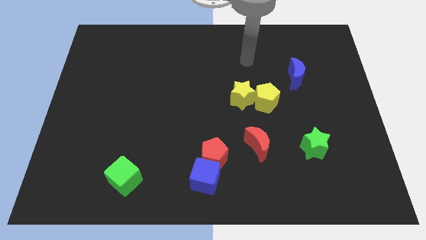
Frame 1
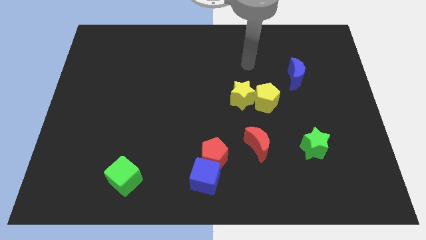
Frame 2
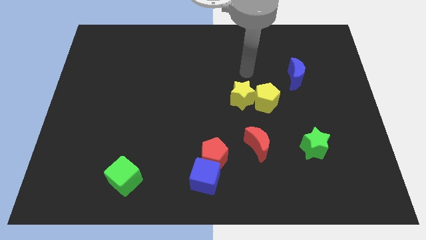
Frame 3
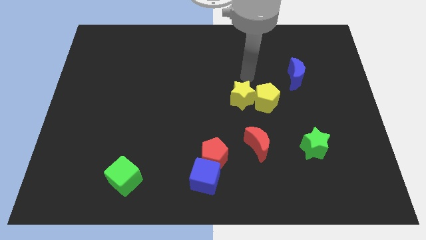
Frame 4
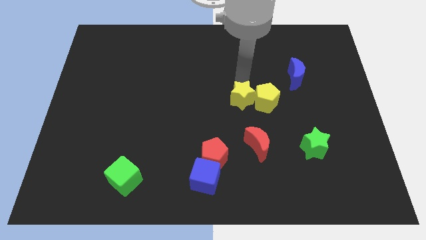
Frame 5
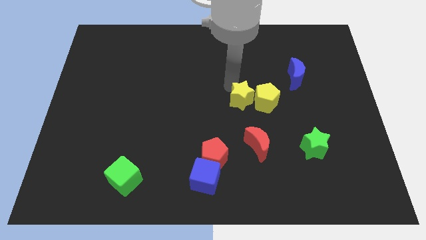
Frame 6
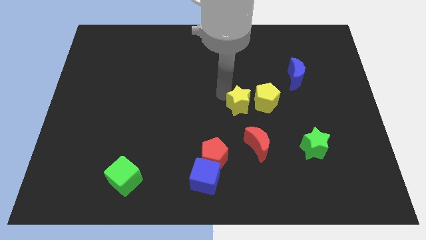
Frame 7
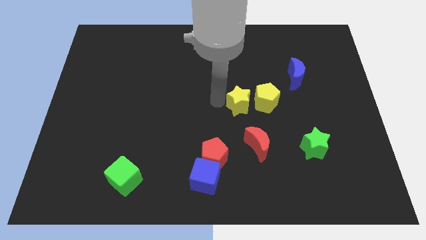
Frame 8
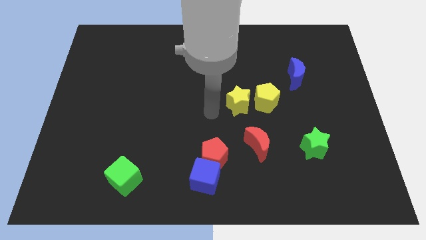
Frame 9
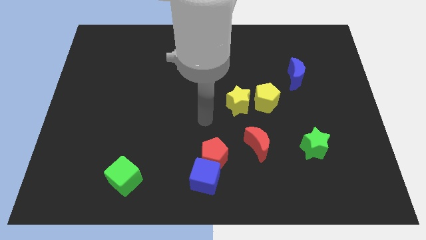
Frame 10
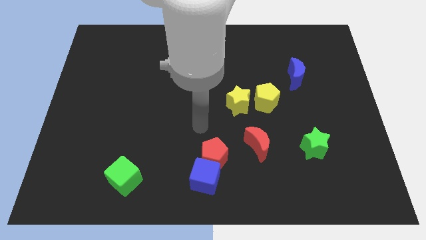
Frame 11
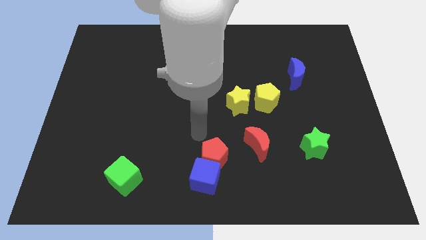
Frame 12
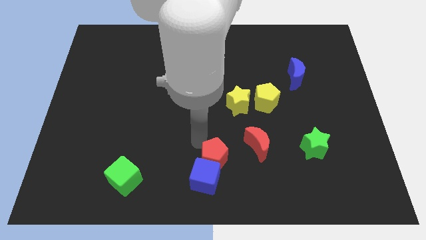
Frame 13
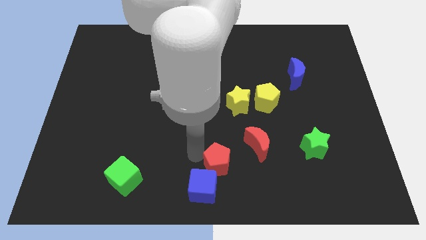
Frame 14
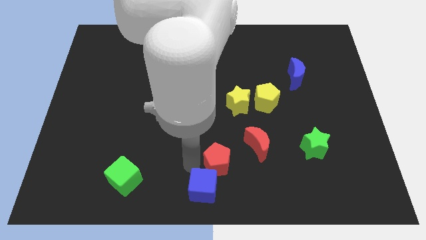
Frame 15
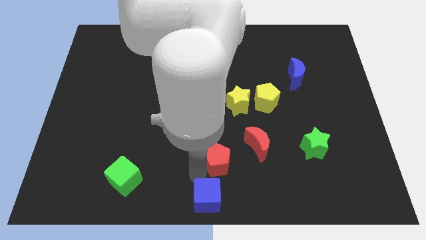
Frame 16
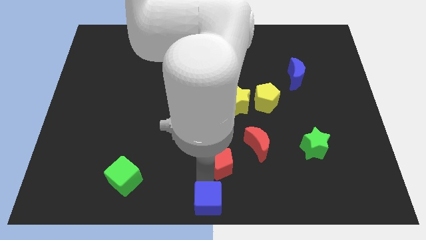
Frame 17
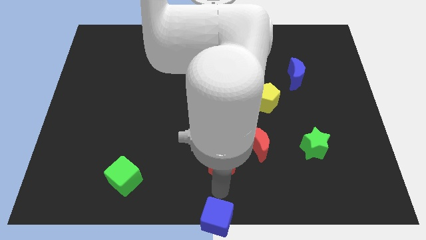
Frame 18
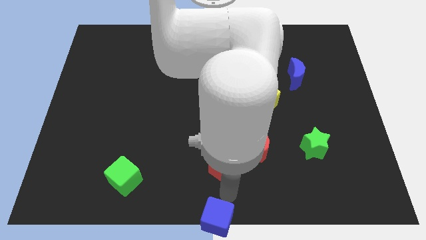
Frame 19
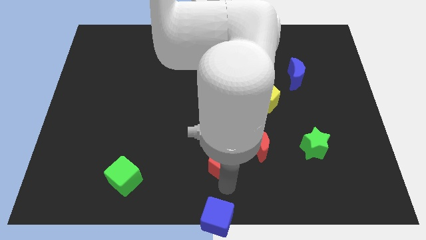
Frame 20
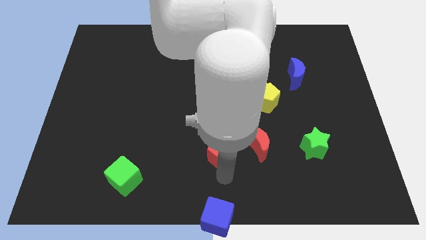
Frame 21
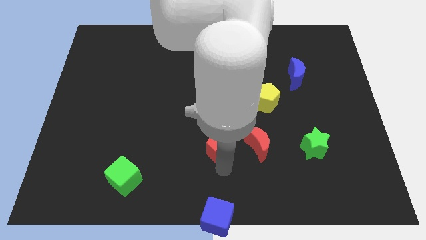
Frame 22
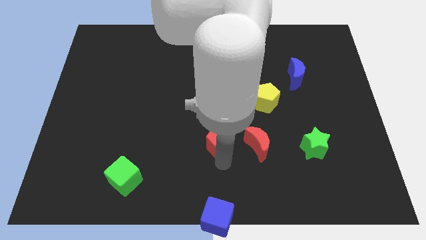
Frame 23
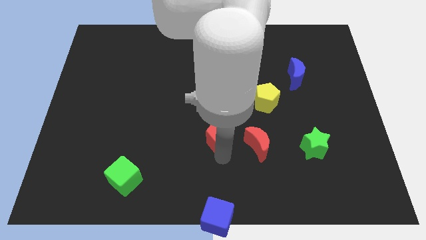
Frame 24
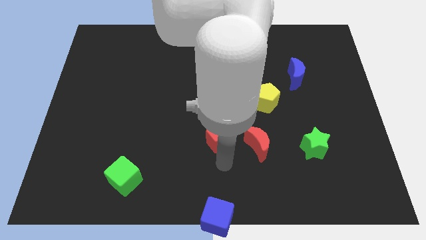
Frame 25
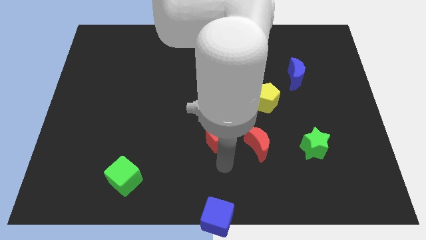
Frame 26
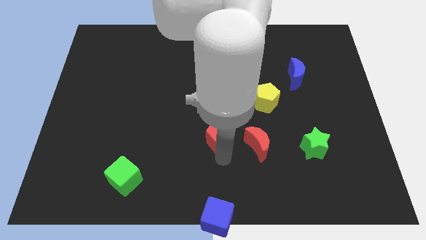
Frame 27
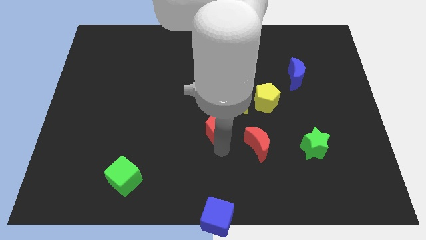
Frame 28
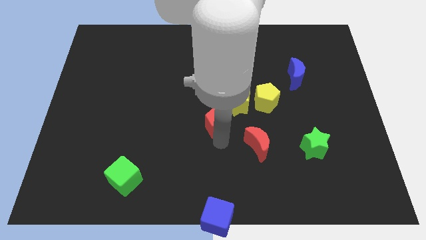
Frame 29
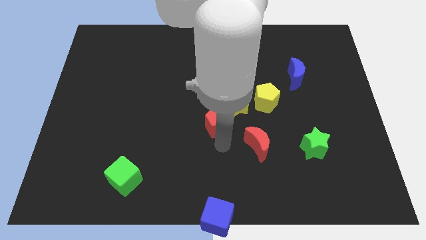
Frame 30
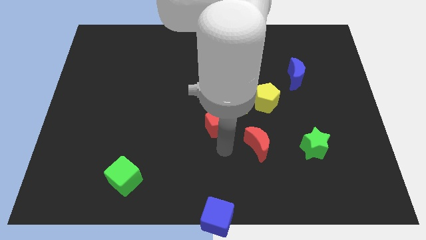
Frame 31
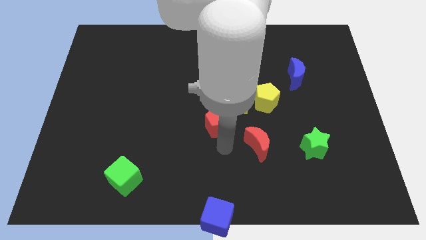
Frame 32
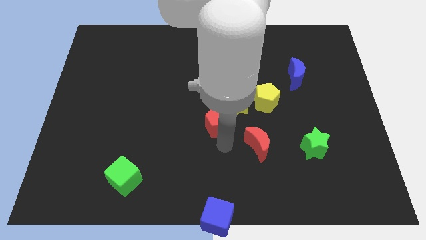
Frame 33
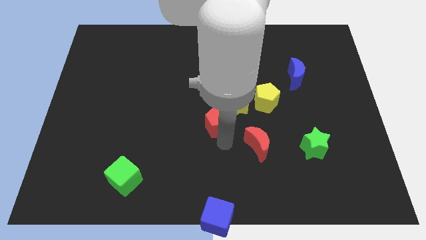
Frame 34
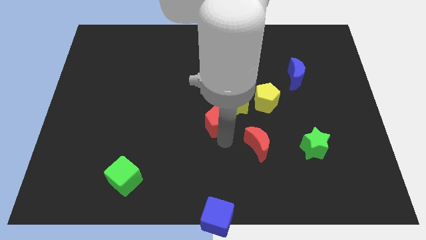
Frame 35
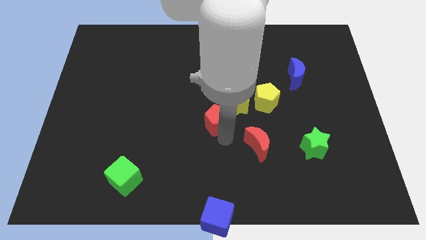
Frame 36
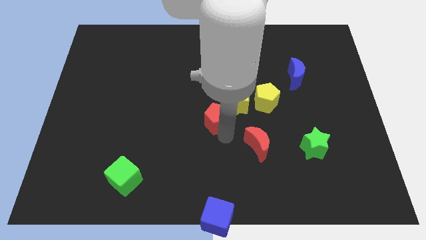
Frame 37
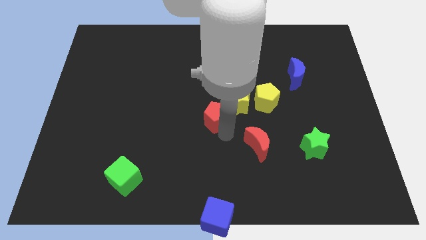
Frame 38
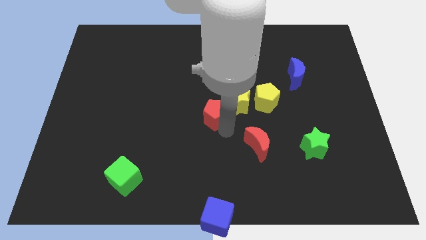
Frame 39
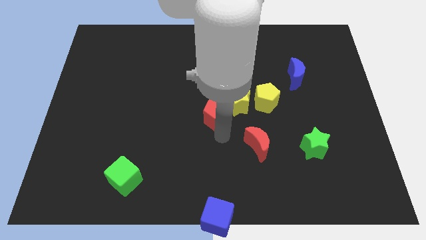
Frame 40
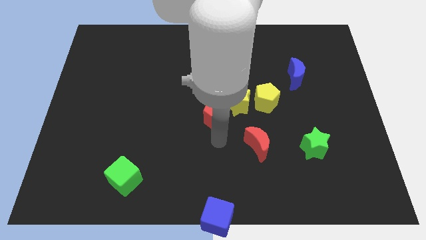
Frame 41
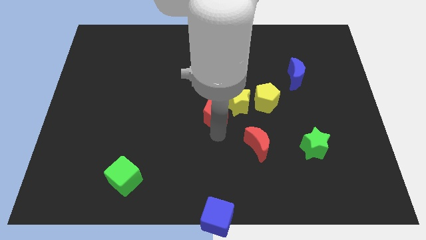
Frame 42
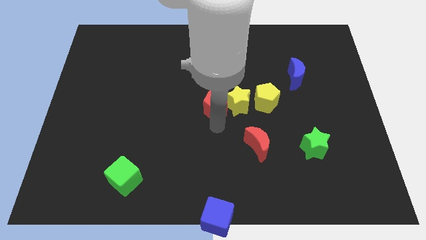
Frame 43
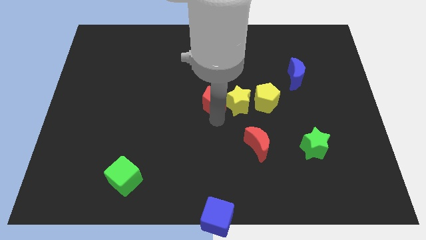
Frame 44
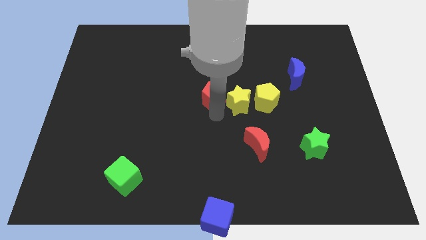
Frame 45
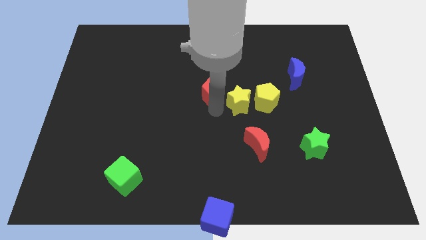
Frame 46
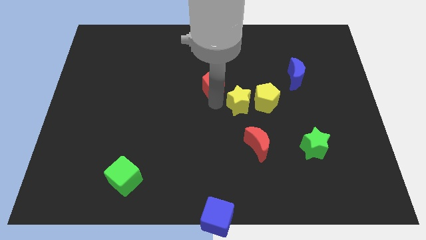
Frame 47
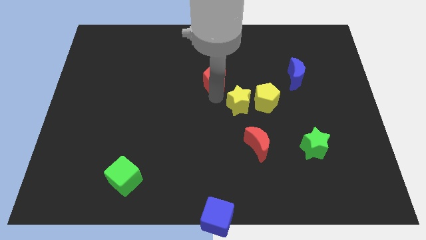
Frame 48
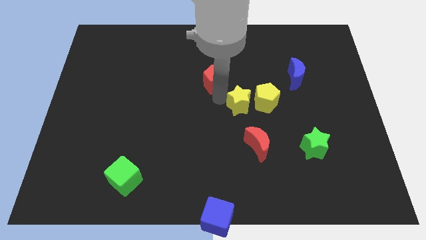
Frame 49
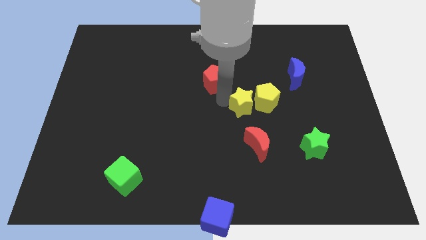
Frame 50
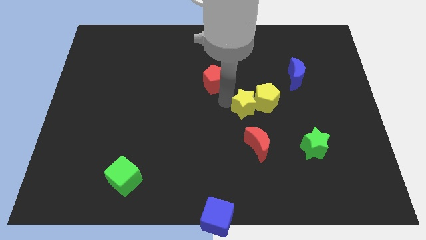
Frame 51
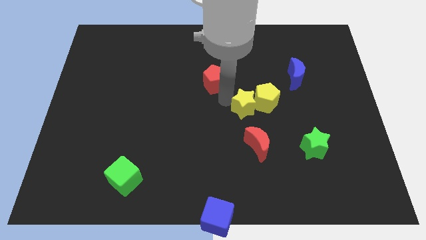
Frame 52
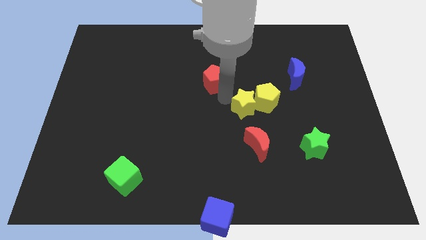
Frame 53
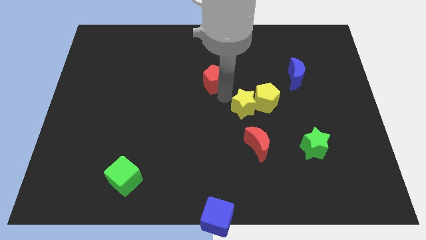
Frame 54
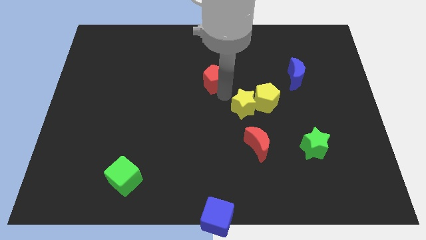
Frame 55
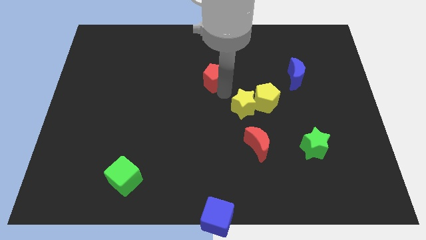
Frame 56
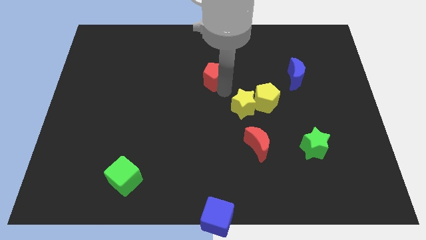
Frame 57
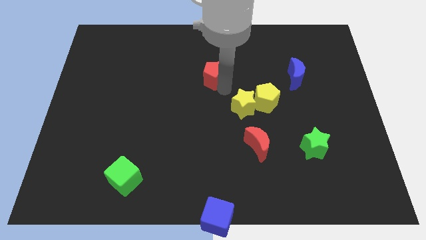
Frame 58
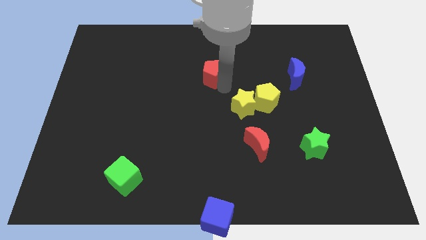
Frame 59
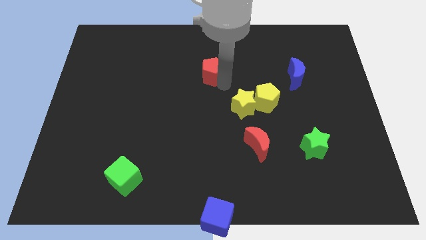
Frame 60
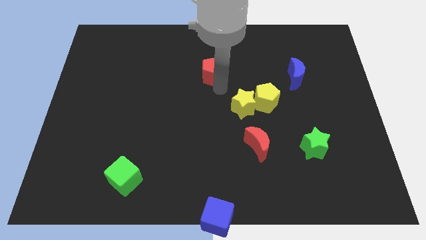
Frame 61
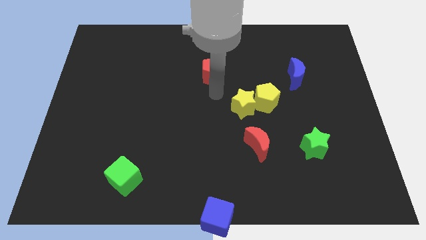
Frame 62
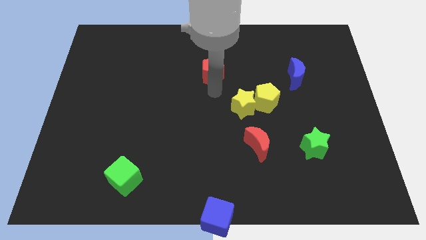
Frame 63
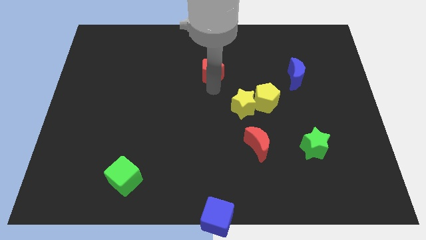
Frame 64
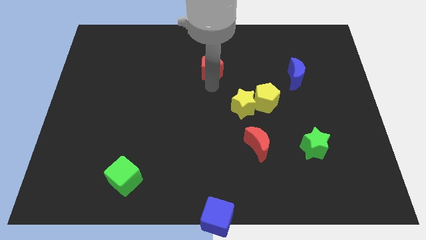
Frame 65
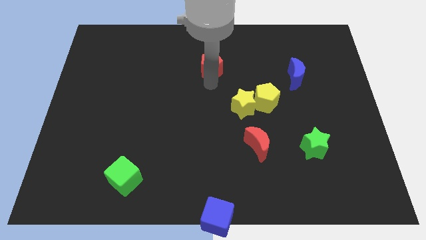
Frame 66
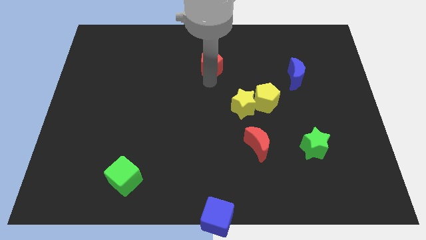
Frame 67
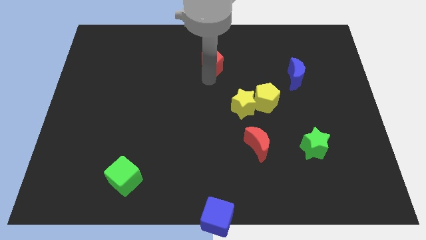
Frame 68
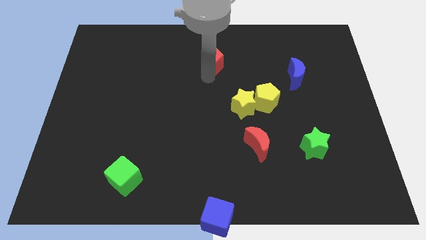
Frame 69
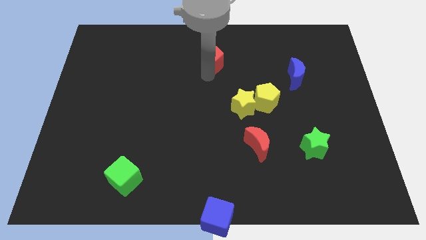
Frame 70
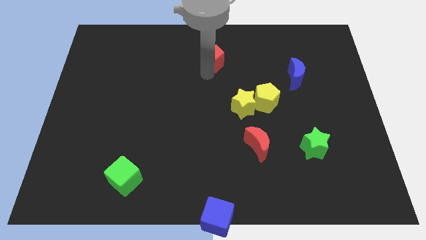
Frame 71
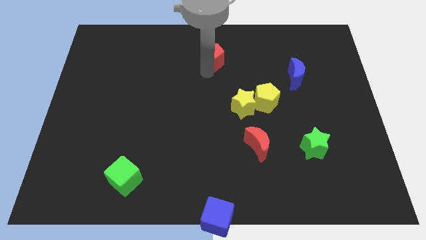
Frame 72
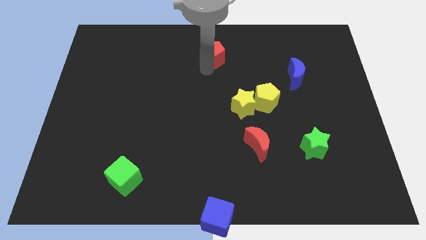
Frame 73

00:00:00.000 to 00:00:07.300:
move the red pentagon to the towards your base
